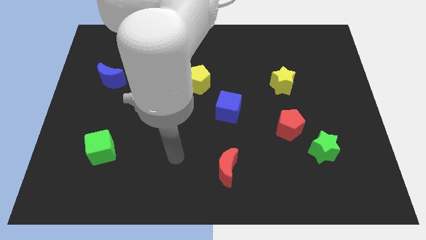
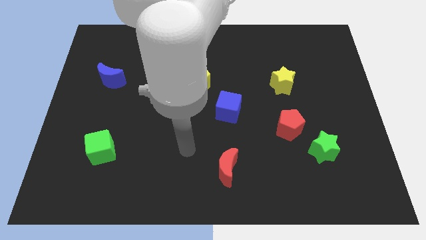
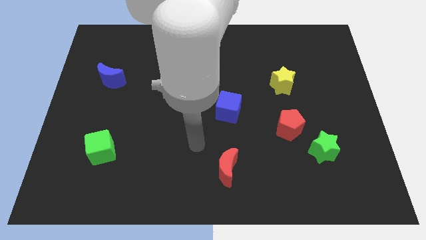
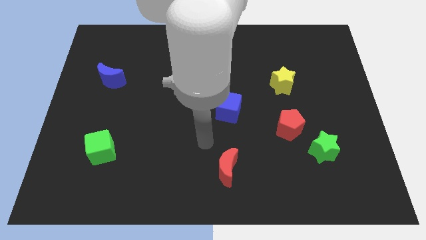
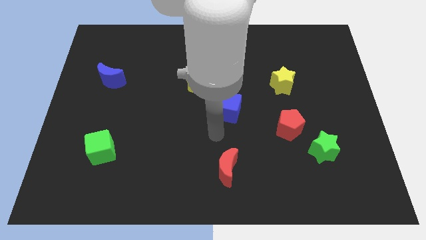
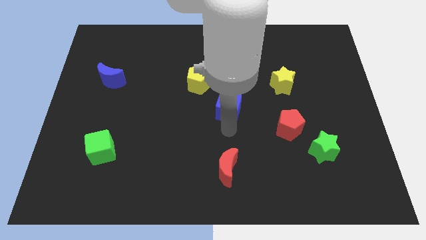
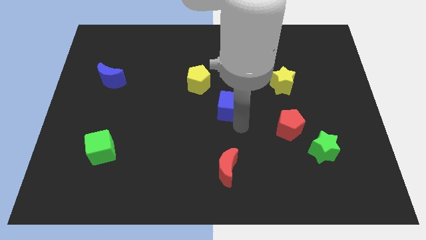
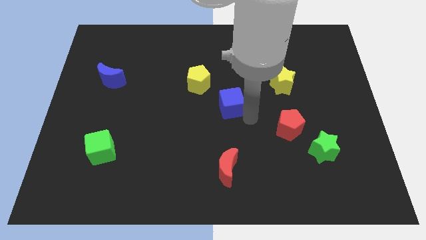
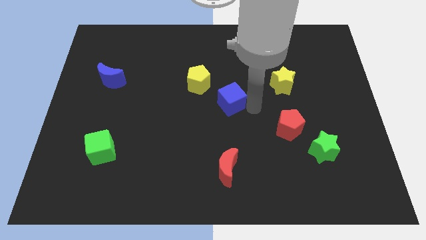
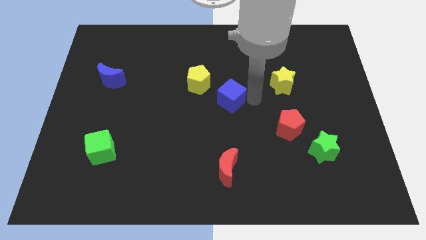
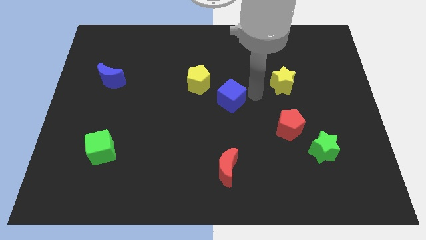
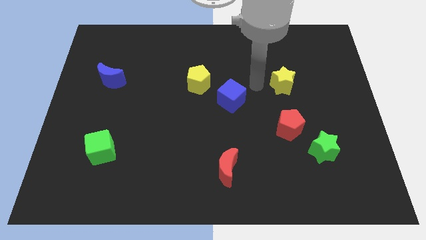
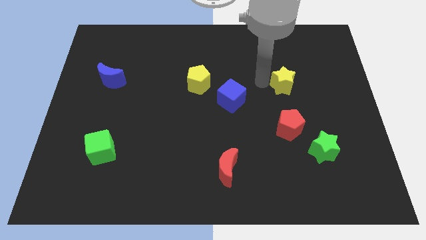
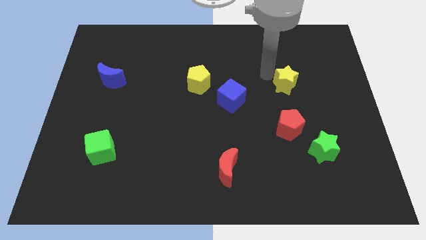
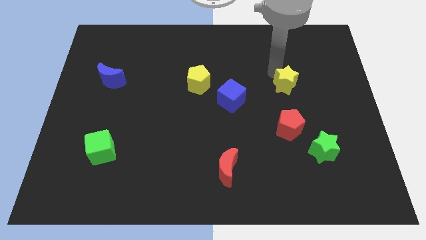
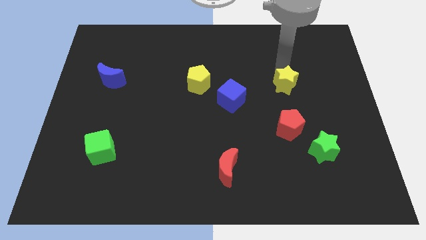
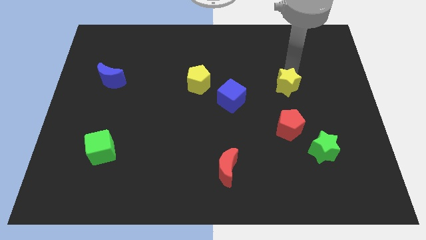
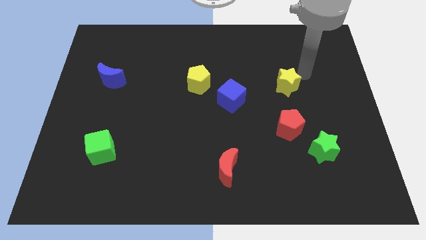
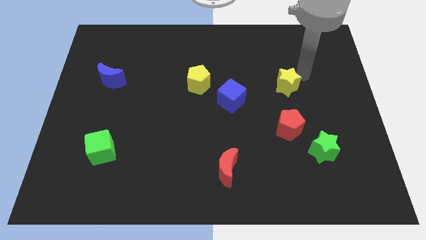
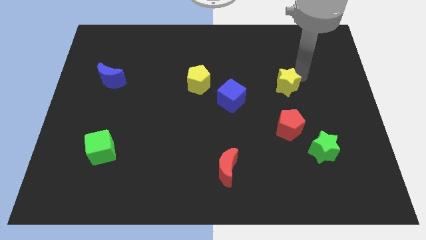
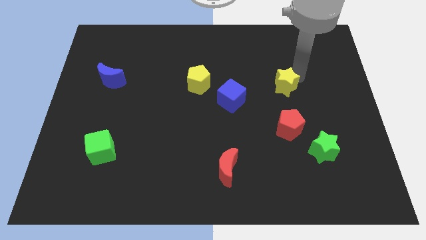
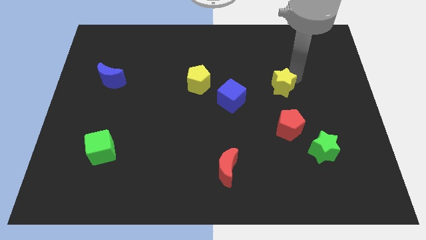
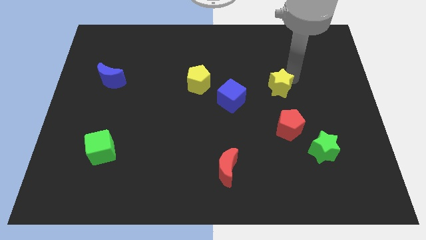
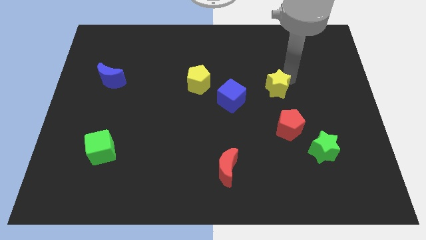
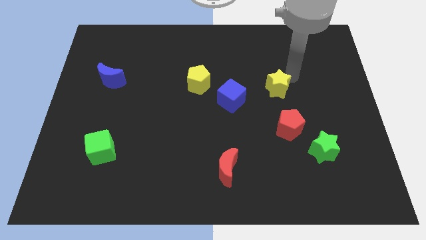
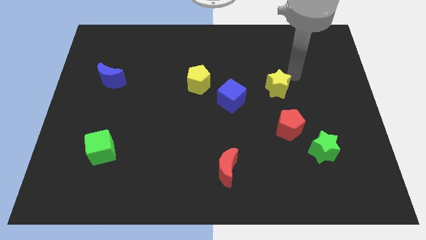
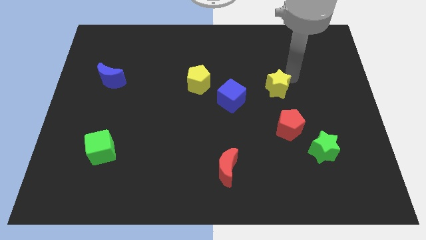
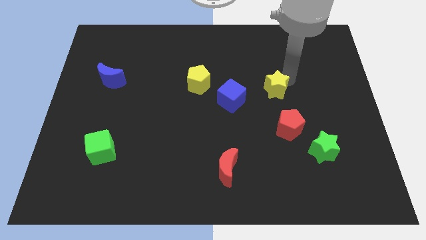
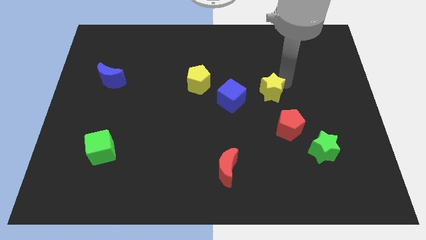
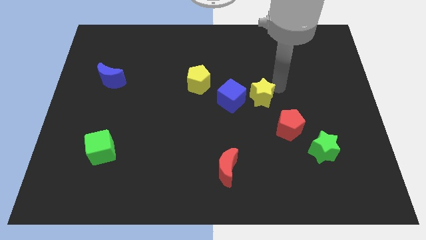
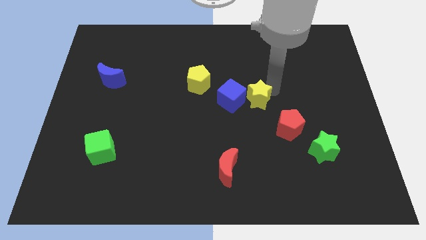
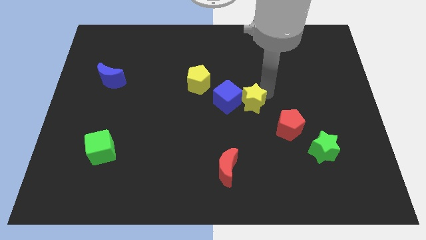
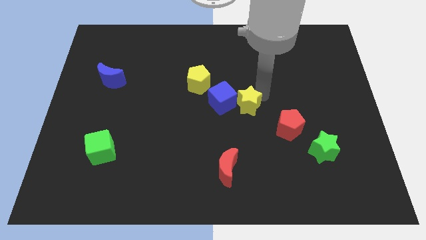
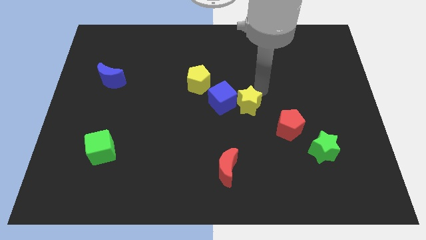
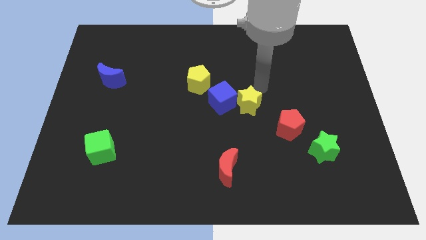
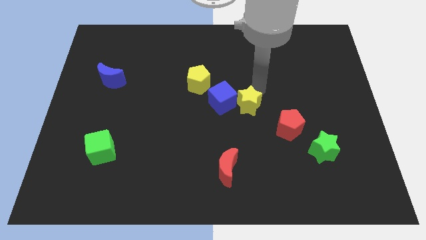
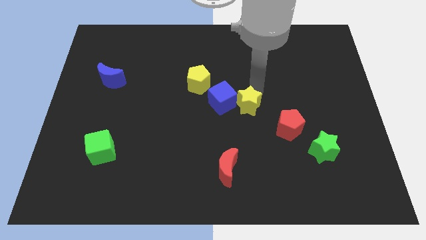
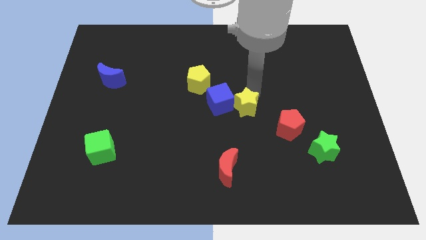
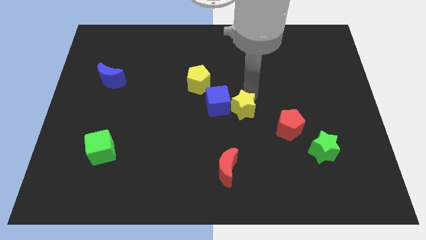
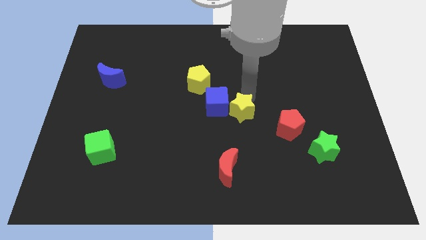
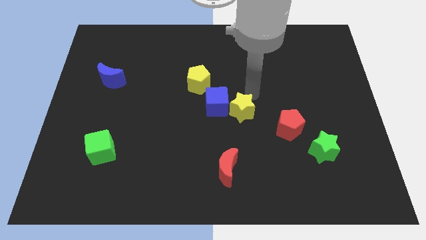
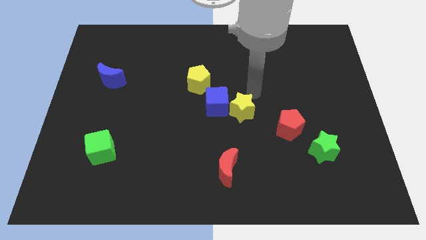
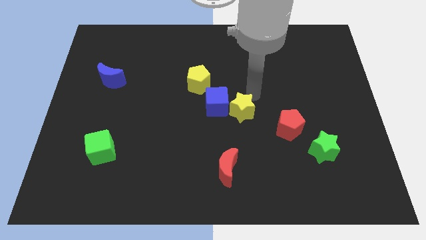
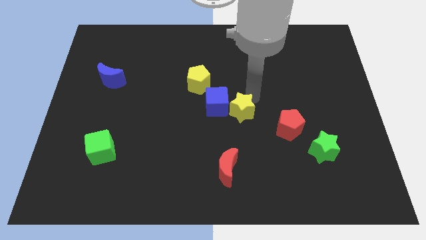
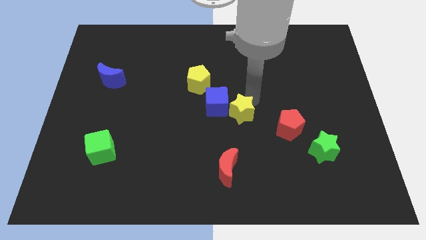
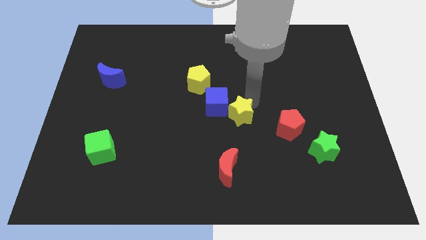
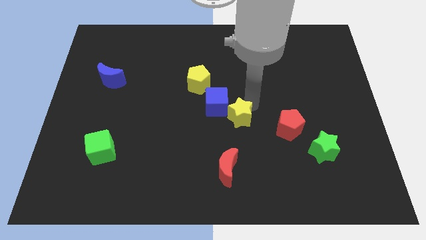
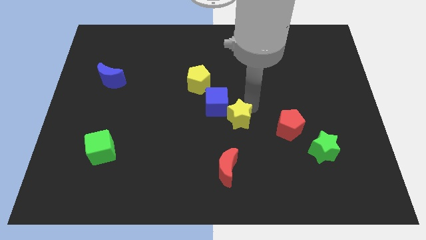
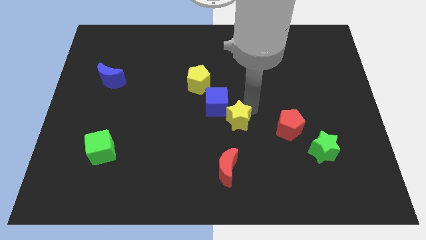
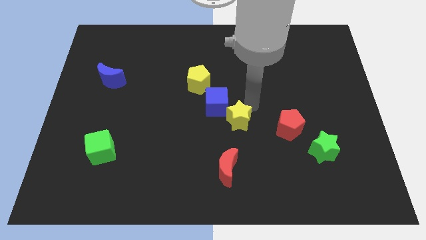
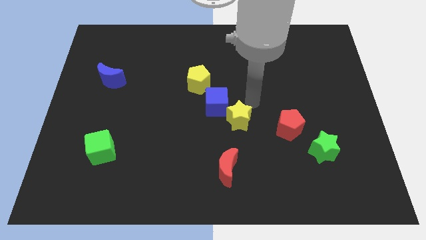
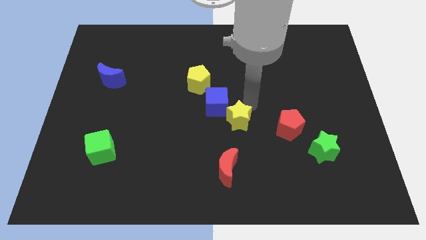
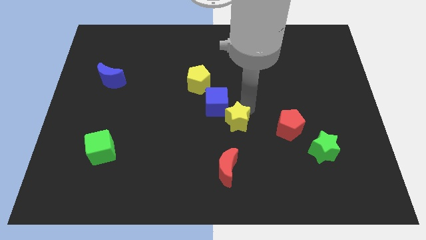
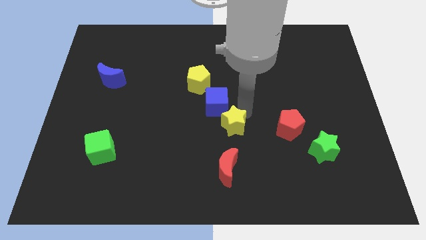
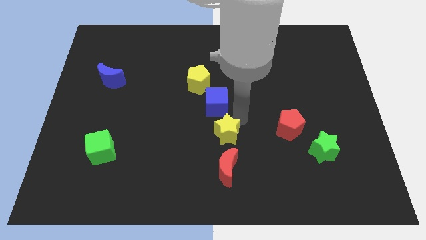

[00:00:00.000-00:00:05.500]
slide the yellow star diagonally downwards and to the left

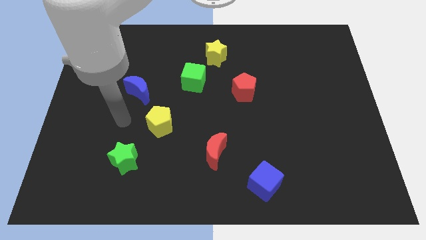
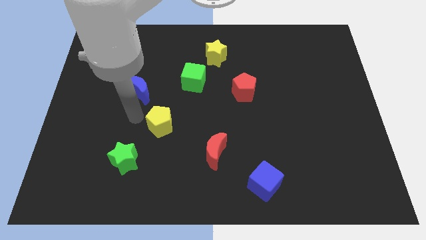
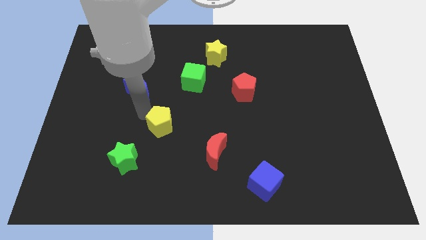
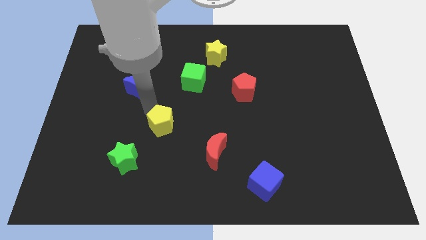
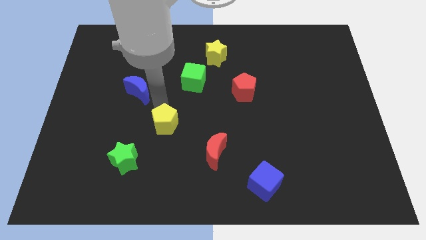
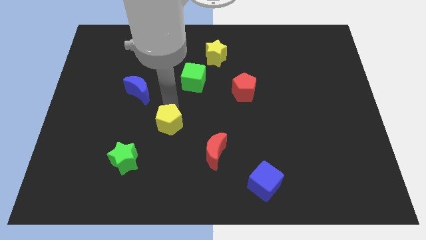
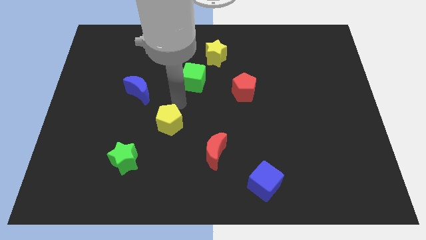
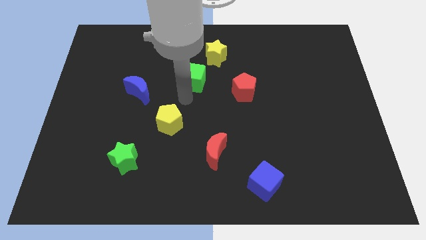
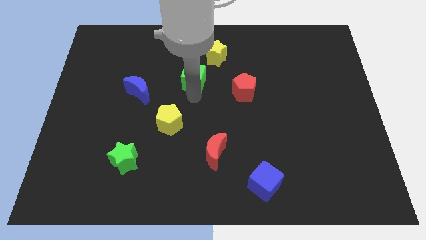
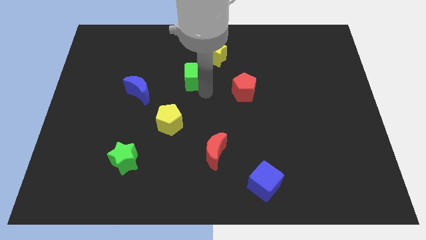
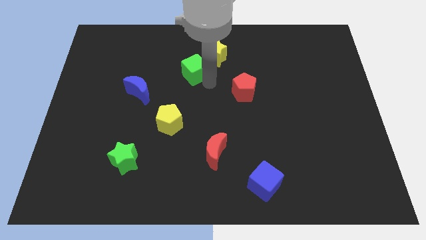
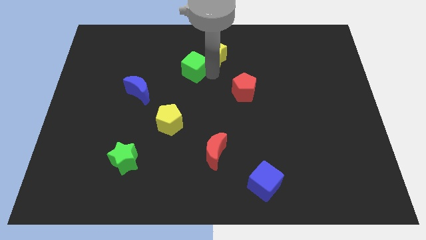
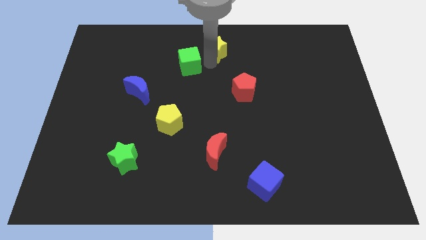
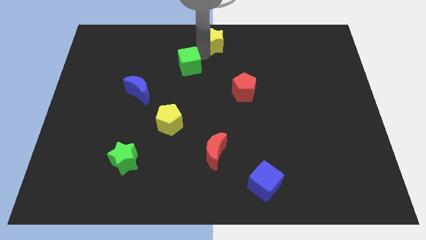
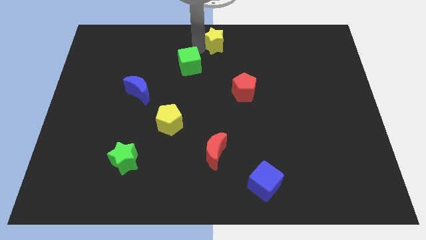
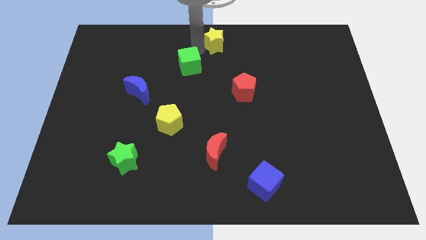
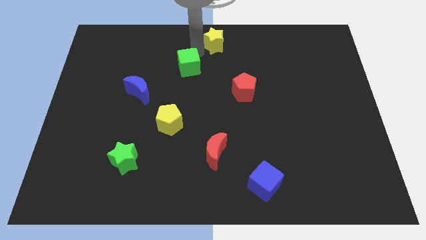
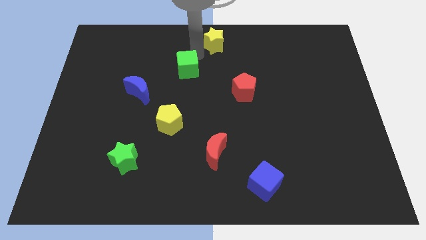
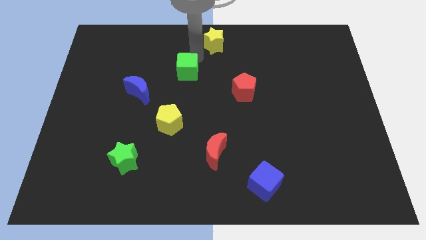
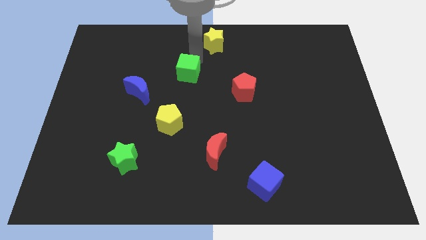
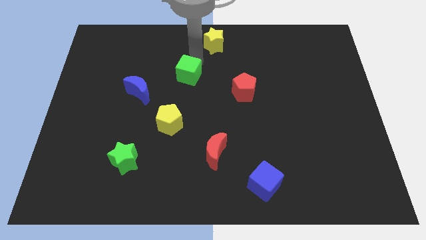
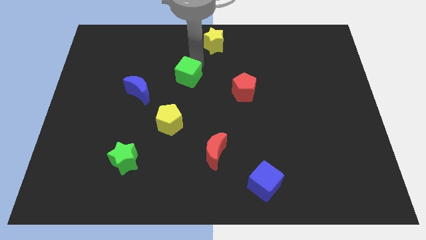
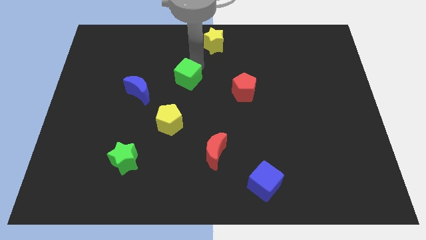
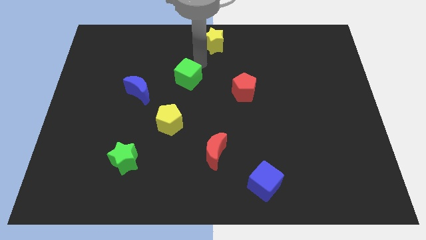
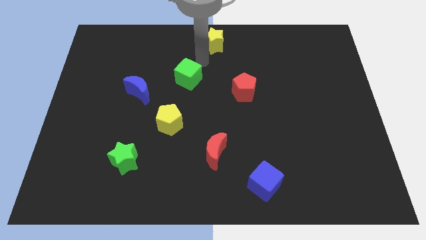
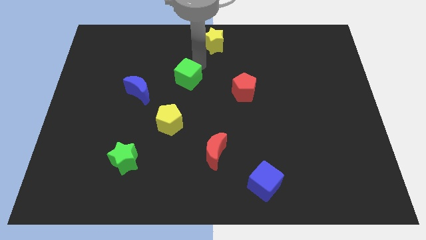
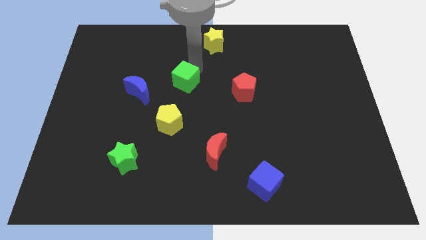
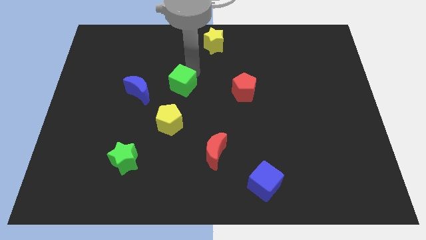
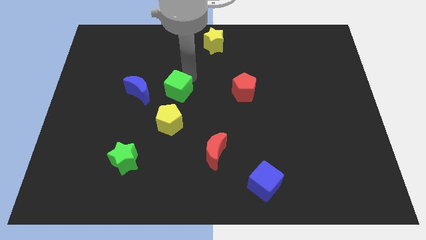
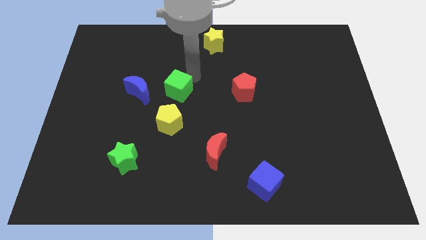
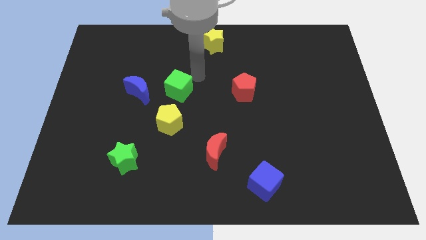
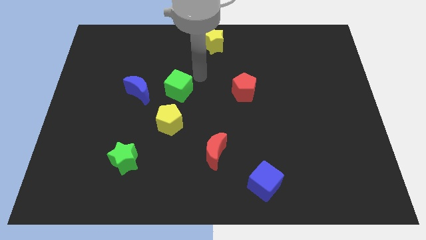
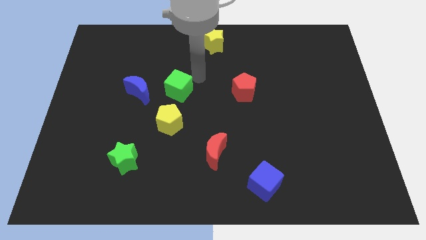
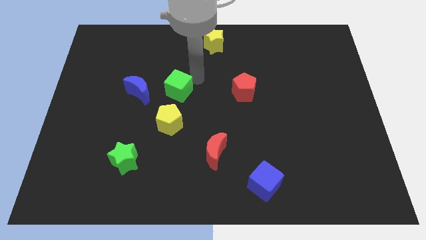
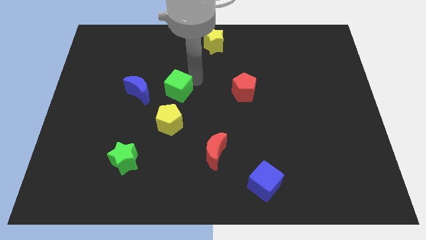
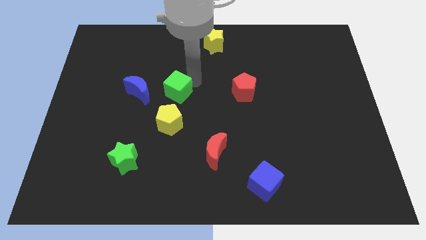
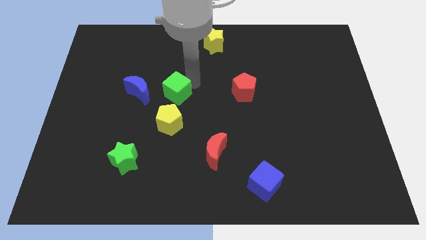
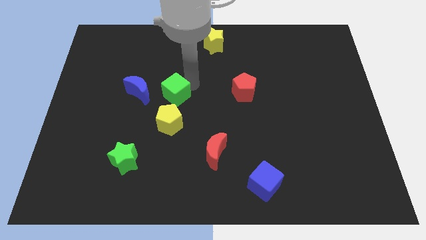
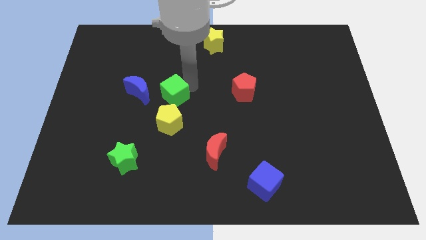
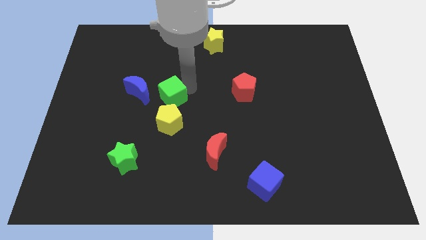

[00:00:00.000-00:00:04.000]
slide the green cube a little bit downwards and to the left diagonally
